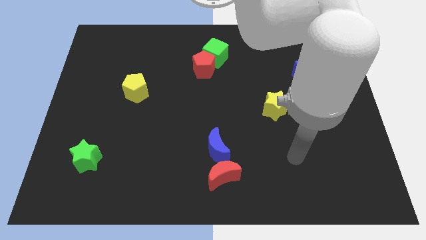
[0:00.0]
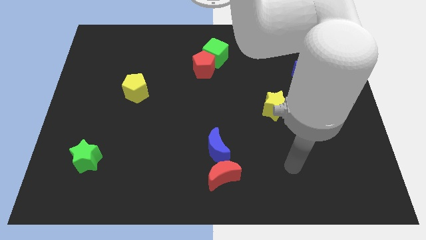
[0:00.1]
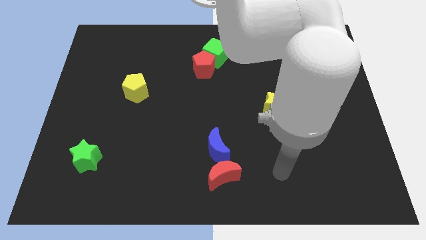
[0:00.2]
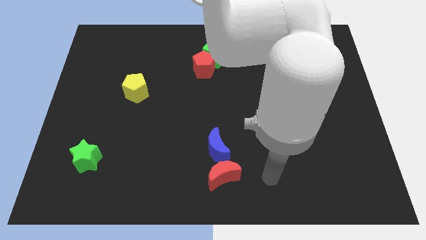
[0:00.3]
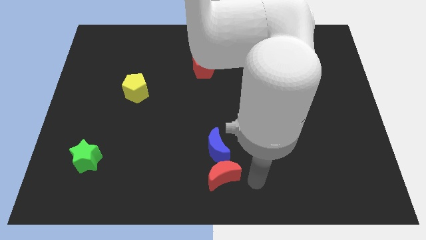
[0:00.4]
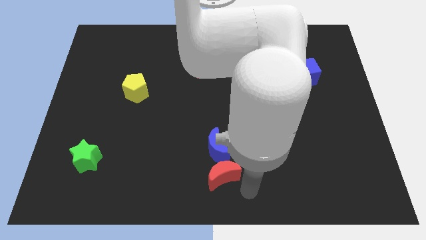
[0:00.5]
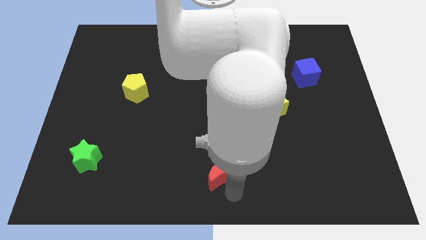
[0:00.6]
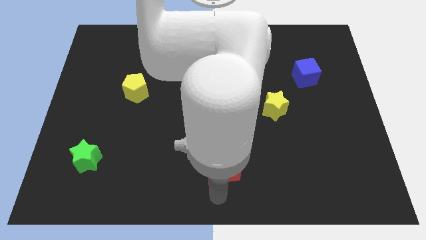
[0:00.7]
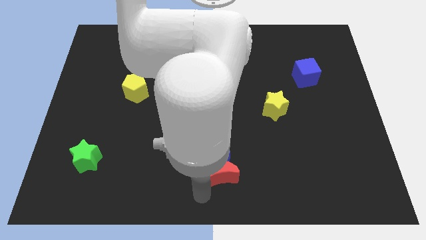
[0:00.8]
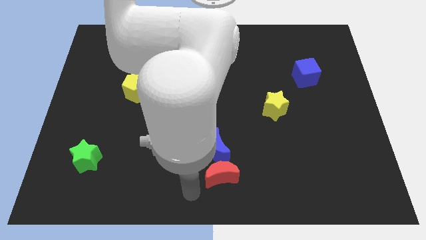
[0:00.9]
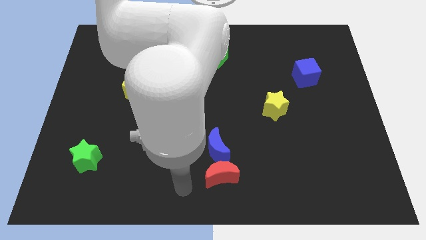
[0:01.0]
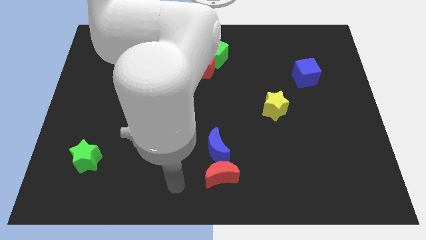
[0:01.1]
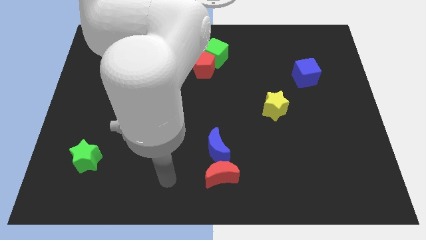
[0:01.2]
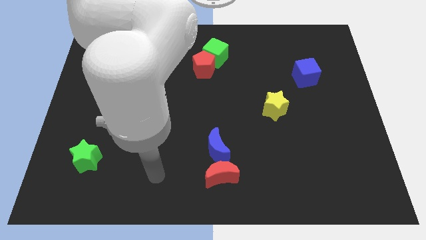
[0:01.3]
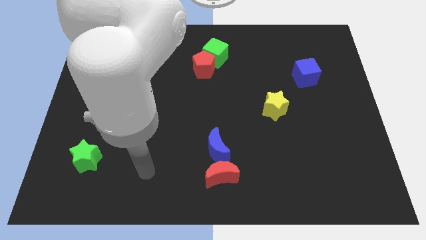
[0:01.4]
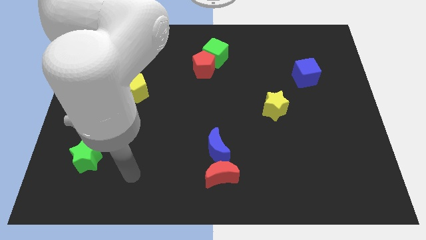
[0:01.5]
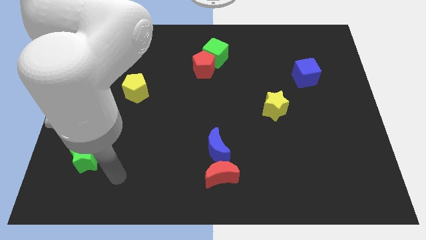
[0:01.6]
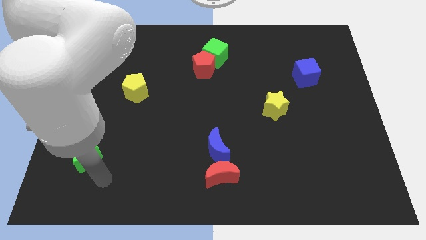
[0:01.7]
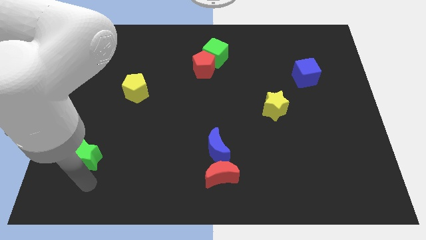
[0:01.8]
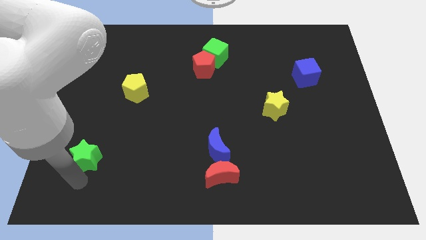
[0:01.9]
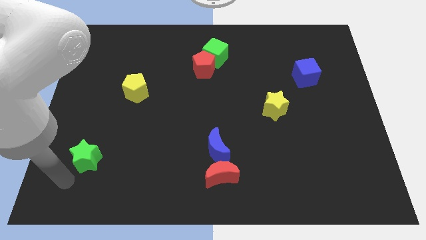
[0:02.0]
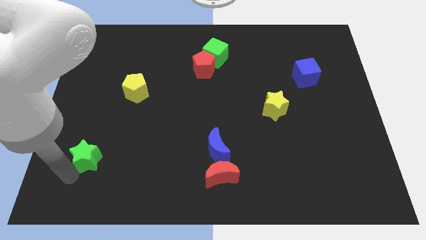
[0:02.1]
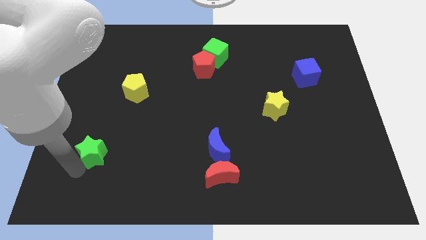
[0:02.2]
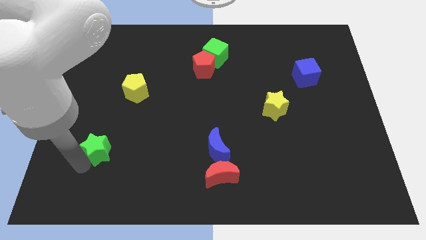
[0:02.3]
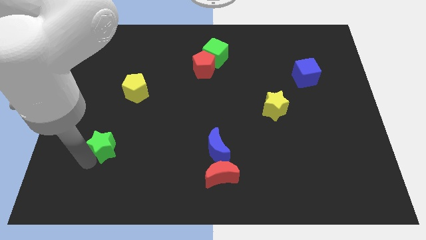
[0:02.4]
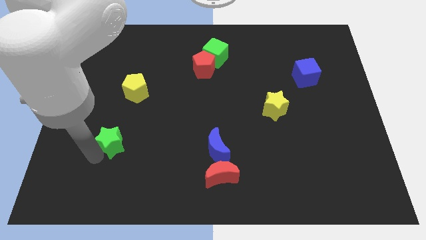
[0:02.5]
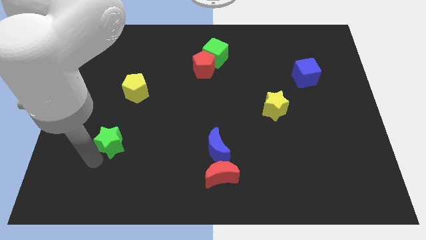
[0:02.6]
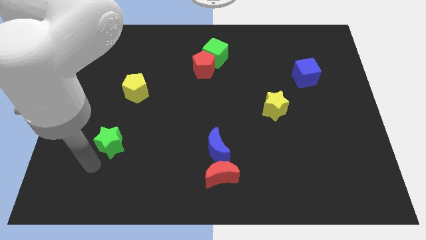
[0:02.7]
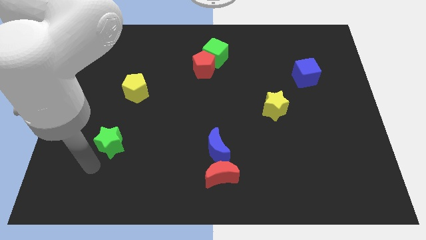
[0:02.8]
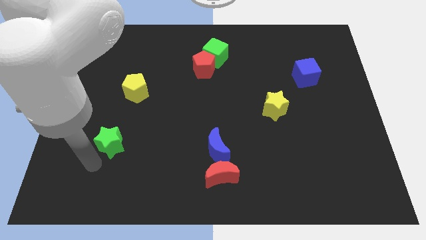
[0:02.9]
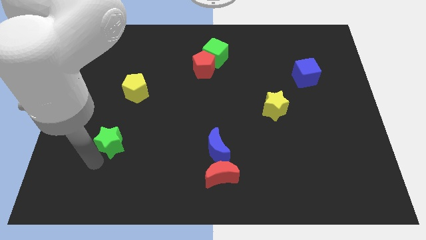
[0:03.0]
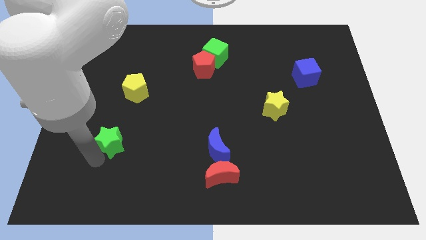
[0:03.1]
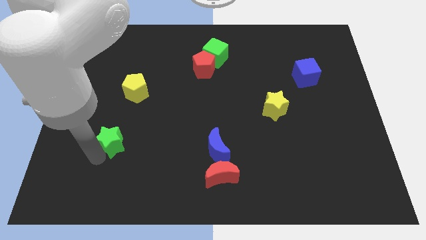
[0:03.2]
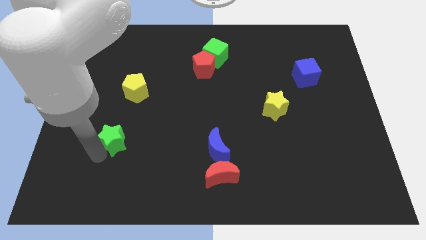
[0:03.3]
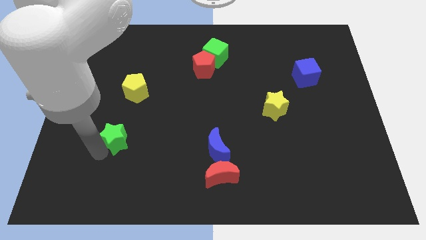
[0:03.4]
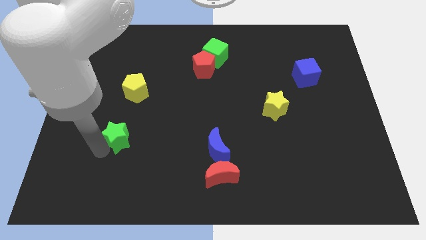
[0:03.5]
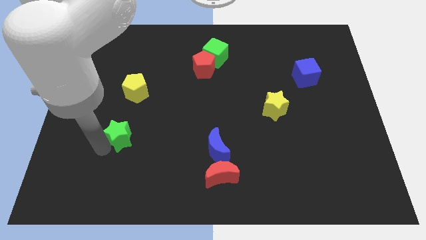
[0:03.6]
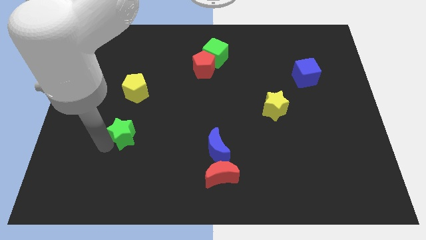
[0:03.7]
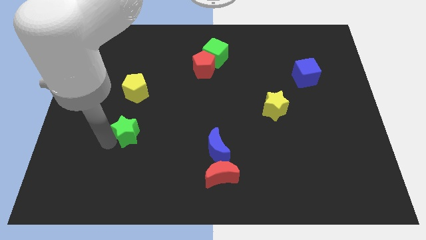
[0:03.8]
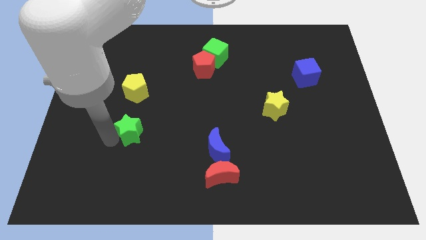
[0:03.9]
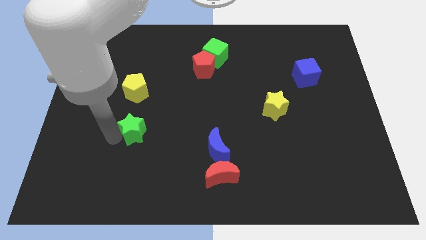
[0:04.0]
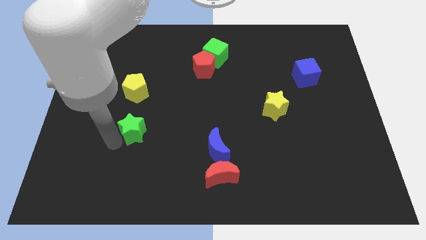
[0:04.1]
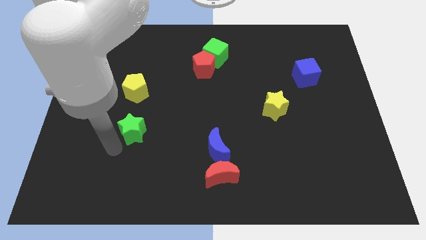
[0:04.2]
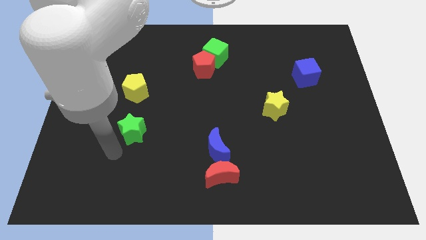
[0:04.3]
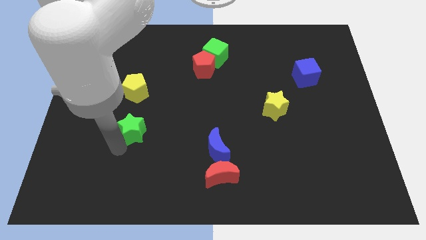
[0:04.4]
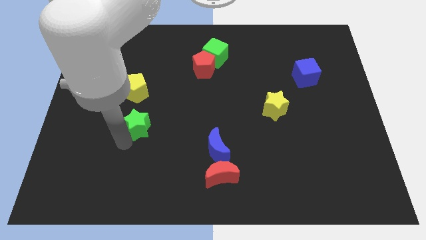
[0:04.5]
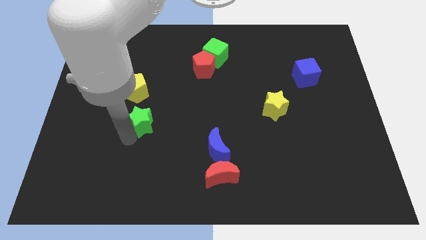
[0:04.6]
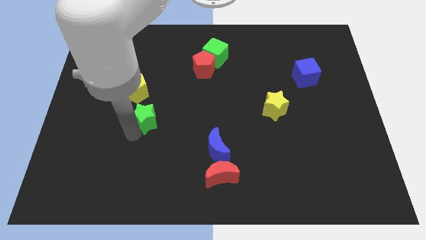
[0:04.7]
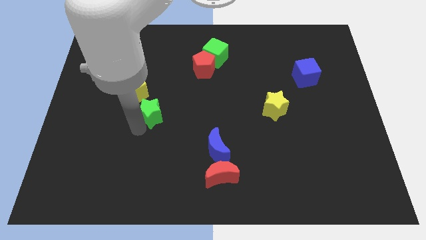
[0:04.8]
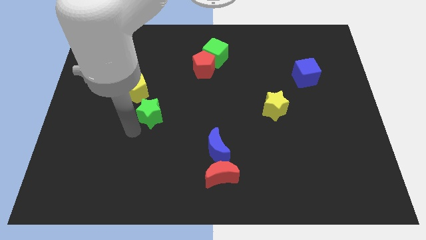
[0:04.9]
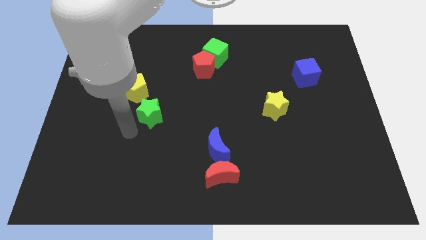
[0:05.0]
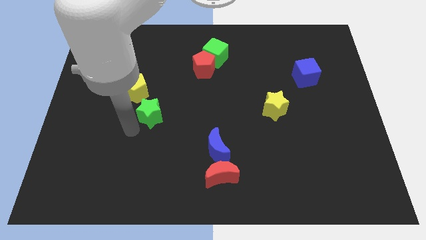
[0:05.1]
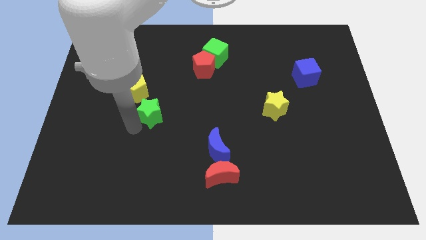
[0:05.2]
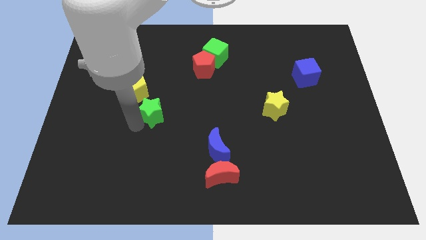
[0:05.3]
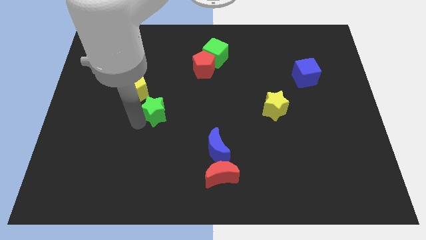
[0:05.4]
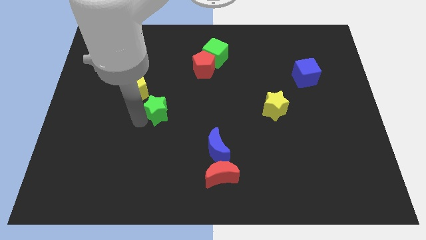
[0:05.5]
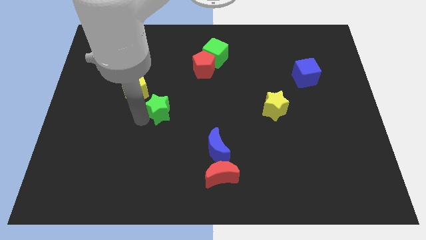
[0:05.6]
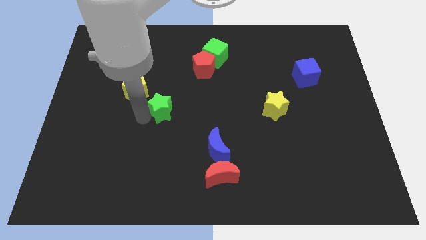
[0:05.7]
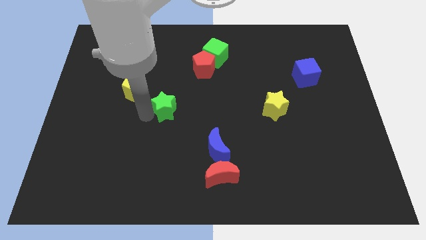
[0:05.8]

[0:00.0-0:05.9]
push the green star up and to the right diagonally

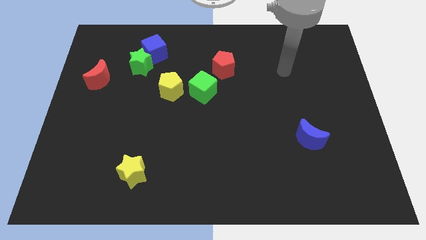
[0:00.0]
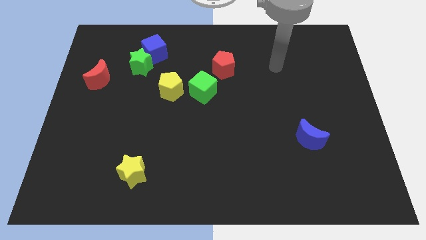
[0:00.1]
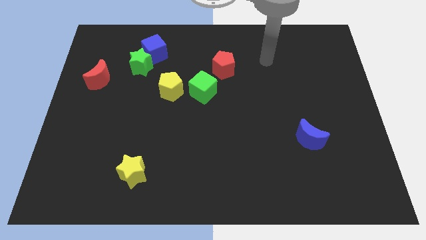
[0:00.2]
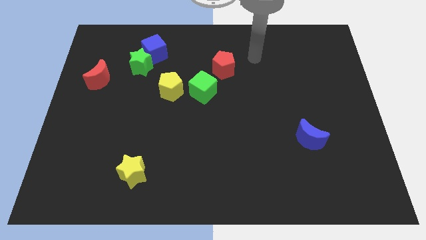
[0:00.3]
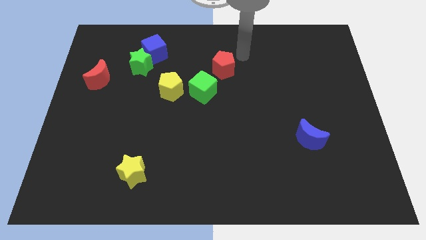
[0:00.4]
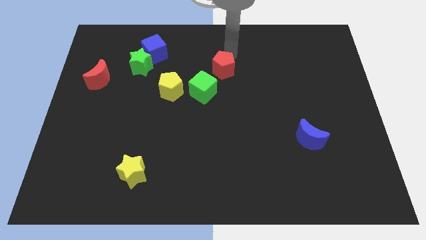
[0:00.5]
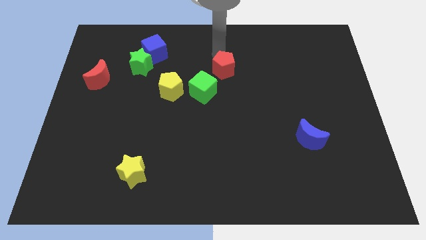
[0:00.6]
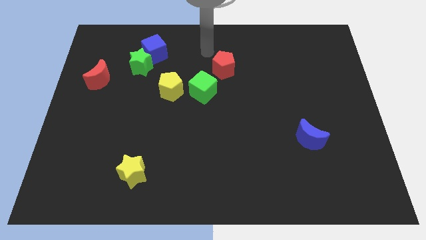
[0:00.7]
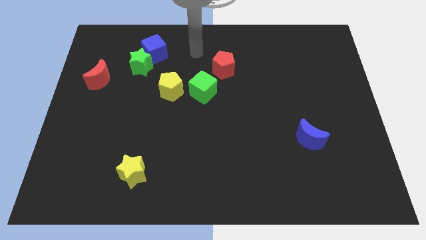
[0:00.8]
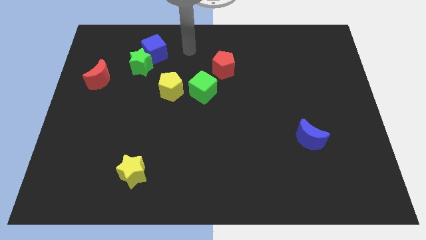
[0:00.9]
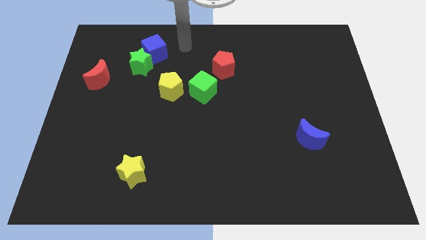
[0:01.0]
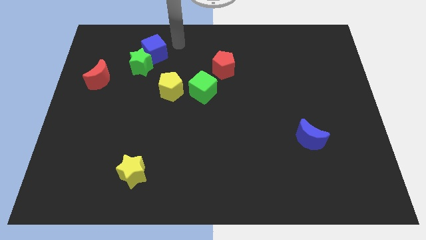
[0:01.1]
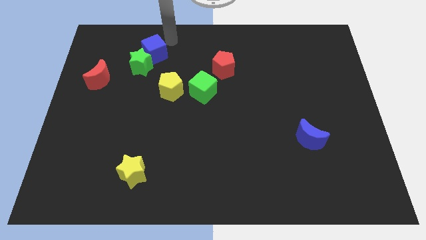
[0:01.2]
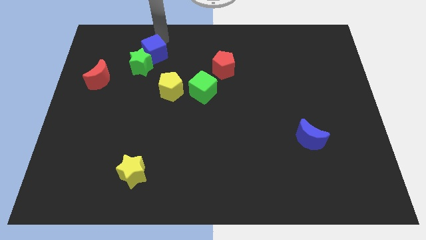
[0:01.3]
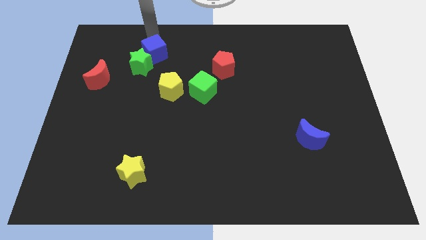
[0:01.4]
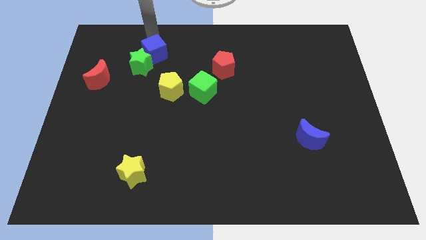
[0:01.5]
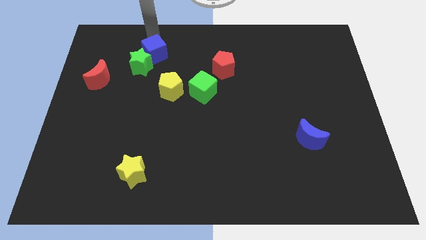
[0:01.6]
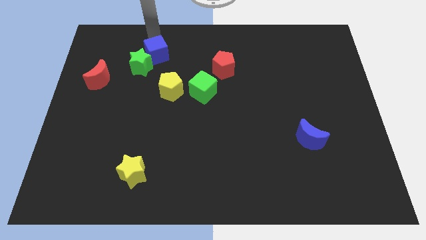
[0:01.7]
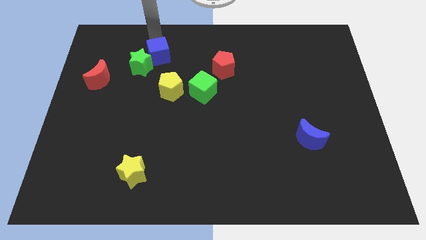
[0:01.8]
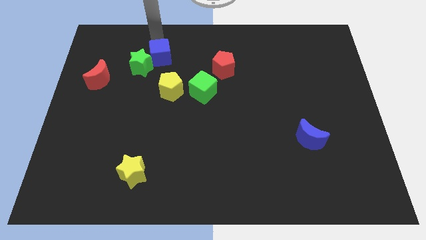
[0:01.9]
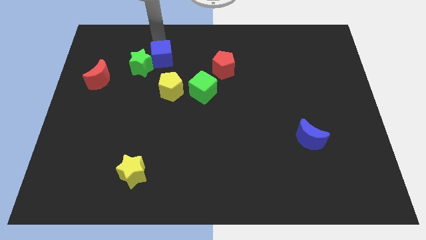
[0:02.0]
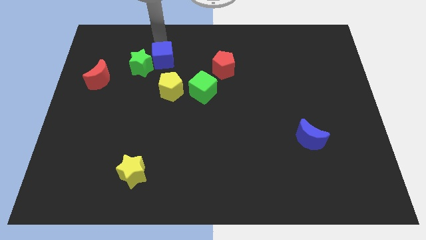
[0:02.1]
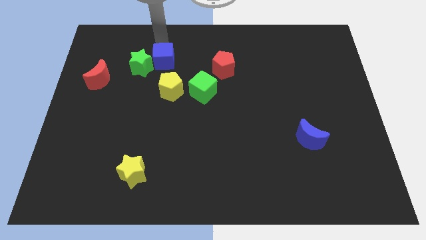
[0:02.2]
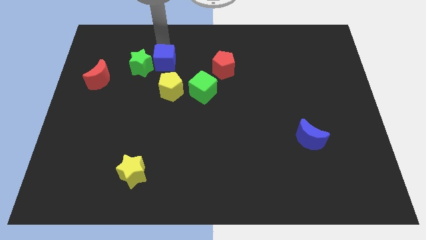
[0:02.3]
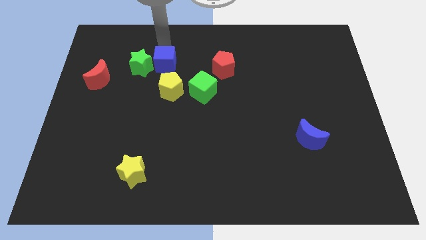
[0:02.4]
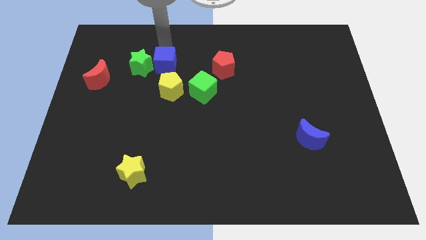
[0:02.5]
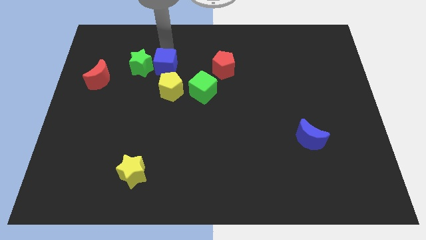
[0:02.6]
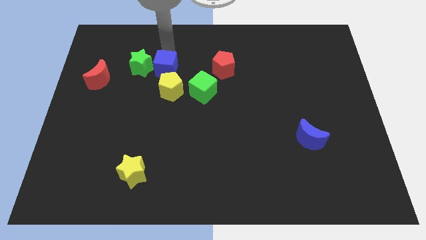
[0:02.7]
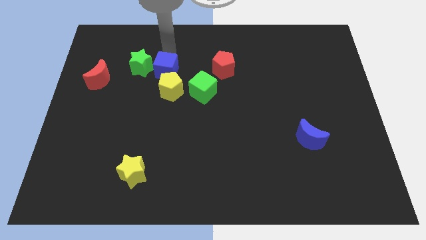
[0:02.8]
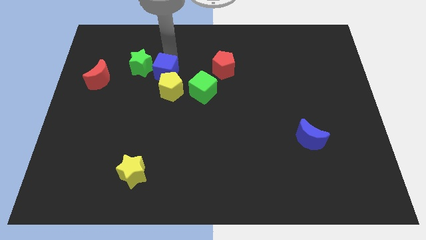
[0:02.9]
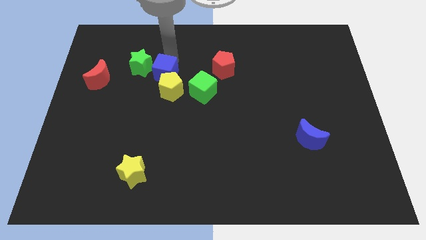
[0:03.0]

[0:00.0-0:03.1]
slightly move the blue cube down
